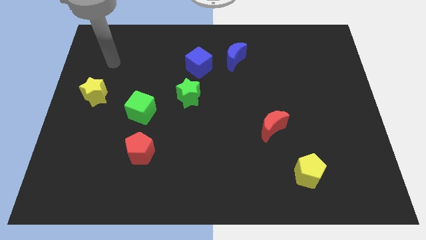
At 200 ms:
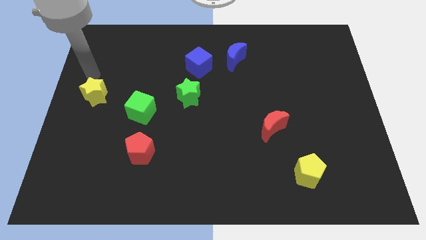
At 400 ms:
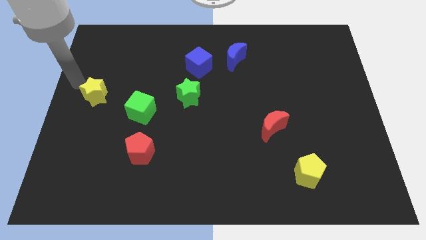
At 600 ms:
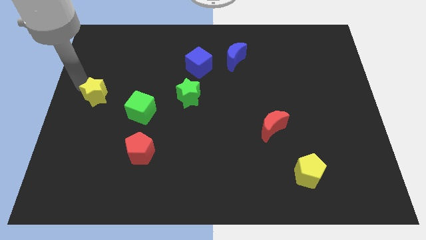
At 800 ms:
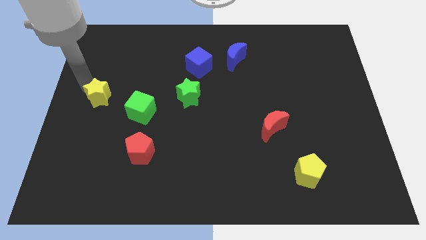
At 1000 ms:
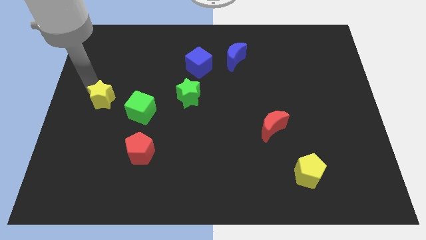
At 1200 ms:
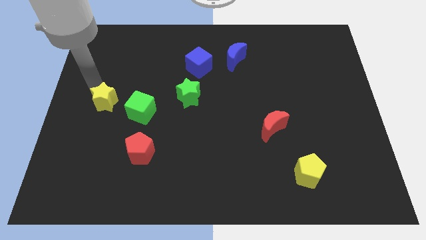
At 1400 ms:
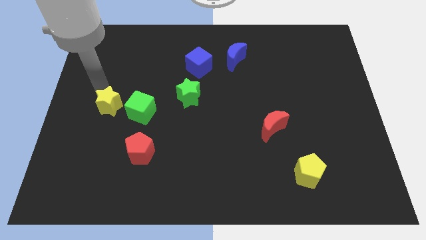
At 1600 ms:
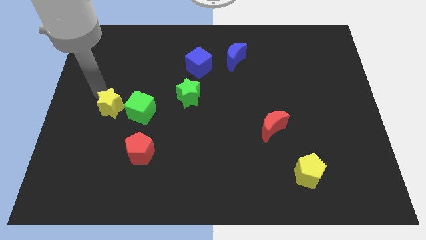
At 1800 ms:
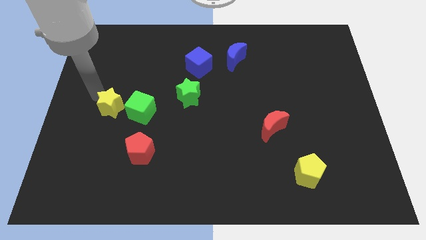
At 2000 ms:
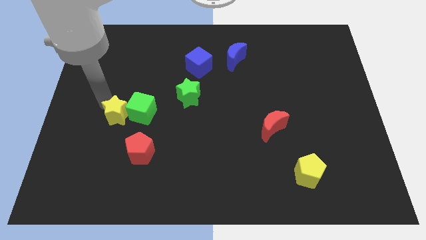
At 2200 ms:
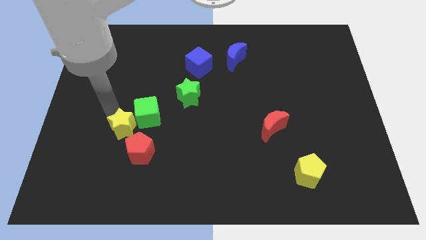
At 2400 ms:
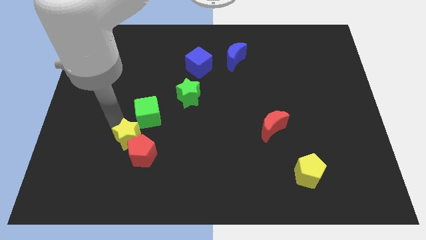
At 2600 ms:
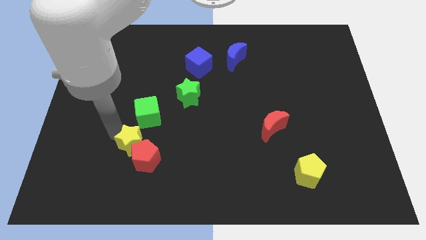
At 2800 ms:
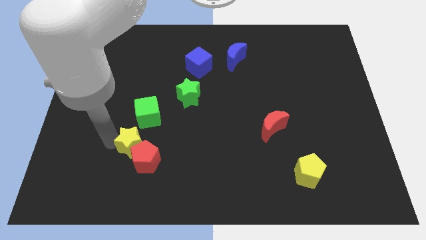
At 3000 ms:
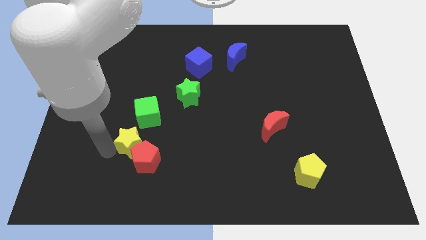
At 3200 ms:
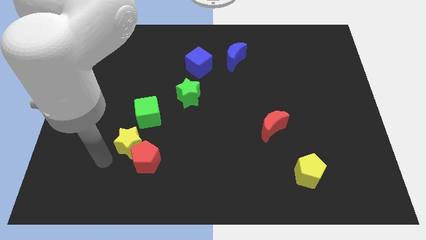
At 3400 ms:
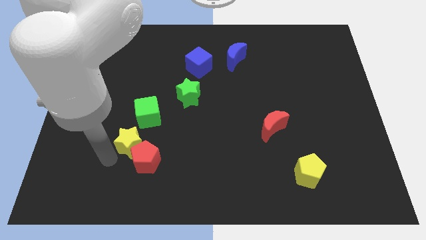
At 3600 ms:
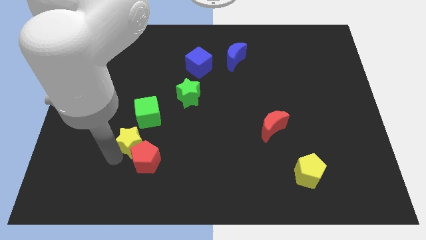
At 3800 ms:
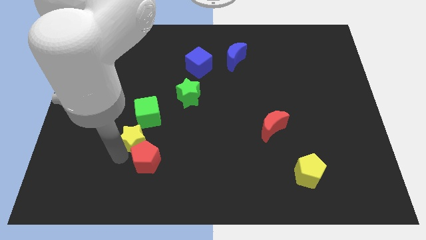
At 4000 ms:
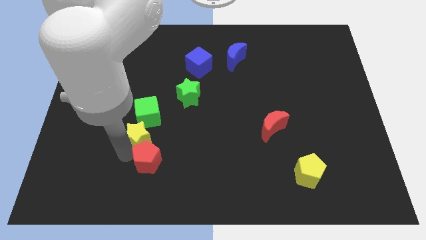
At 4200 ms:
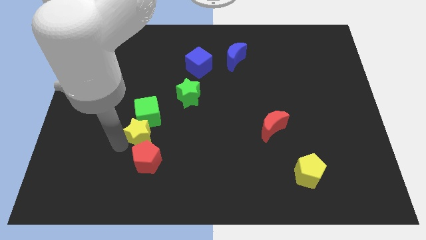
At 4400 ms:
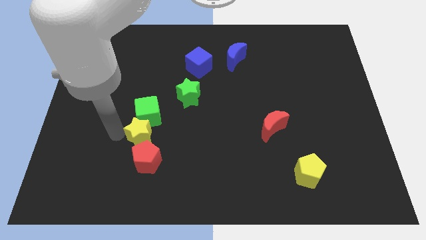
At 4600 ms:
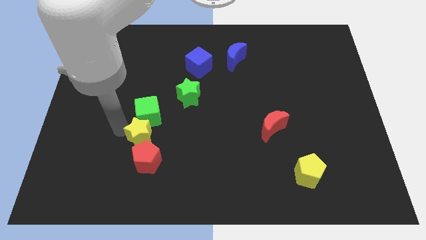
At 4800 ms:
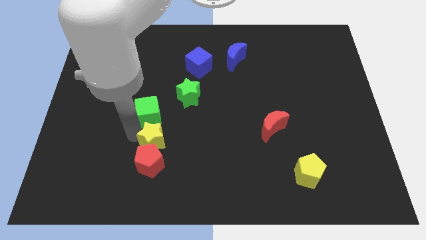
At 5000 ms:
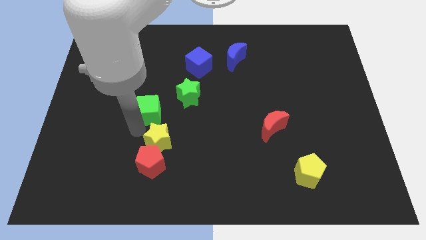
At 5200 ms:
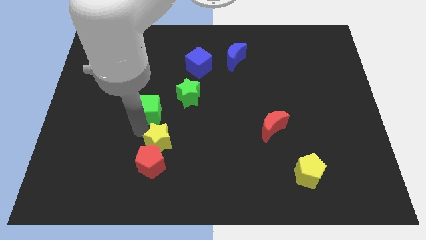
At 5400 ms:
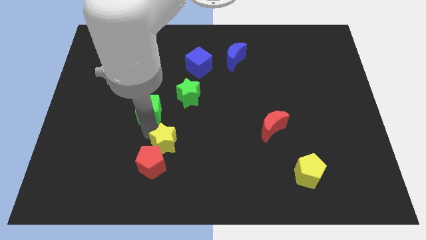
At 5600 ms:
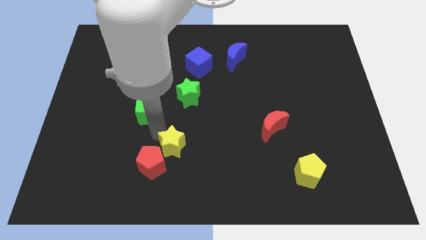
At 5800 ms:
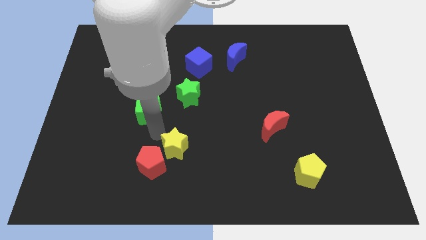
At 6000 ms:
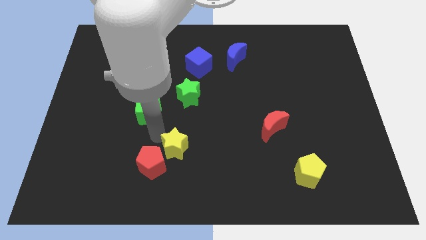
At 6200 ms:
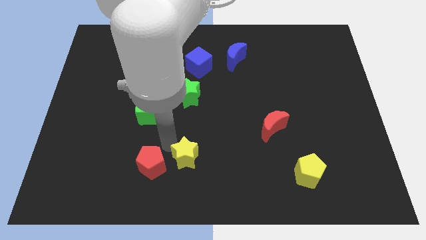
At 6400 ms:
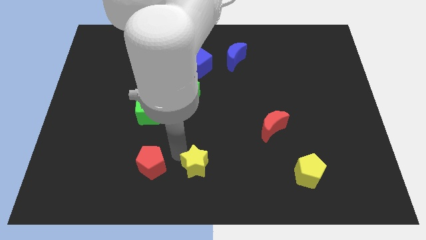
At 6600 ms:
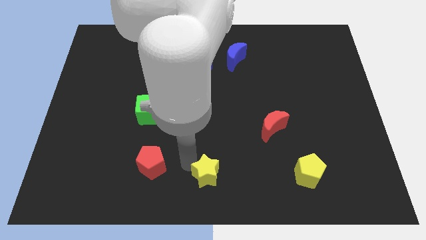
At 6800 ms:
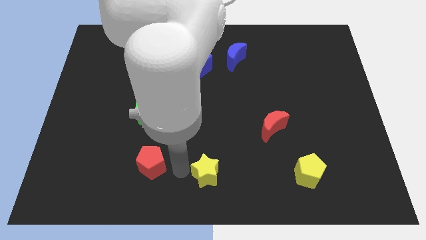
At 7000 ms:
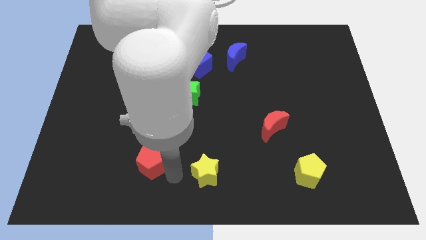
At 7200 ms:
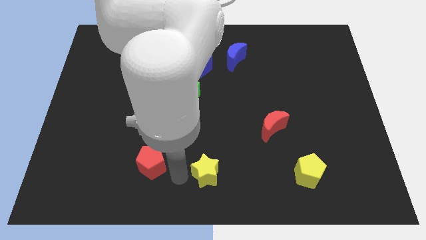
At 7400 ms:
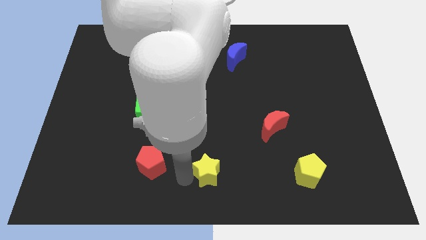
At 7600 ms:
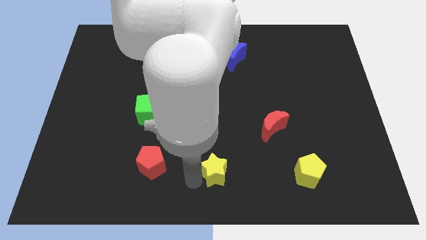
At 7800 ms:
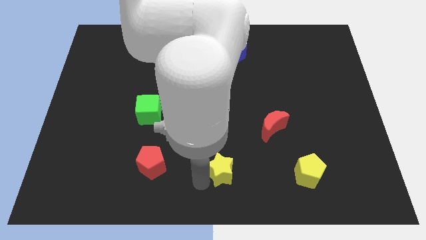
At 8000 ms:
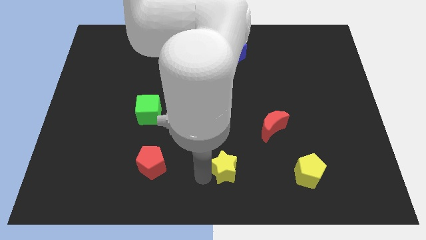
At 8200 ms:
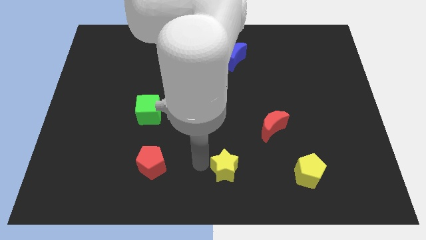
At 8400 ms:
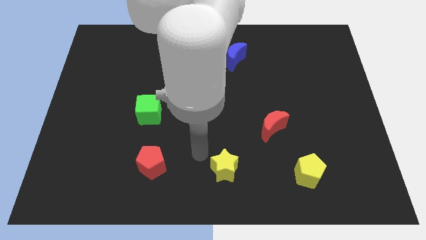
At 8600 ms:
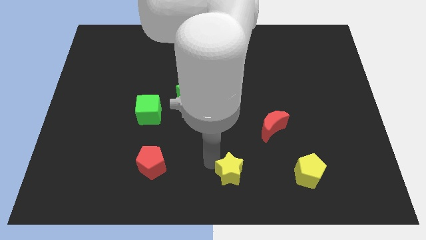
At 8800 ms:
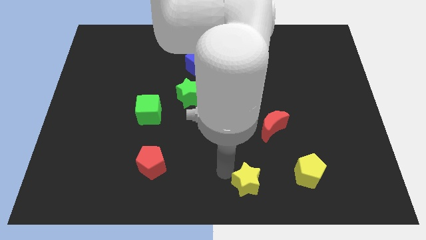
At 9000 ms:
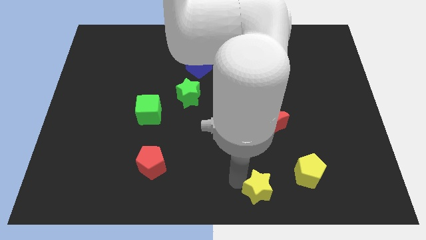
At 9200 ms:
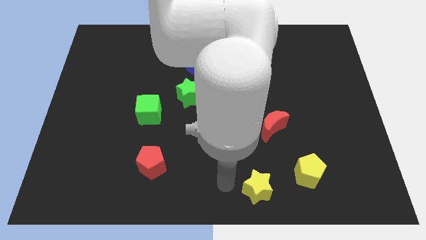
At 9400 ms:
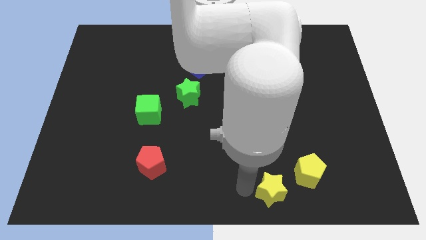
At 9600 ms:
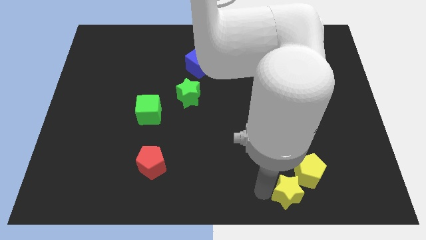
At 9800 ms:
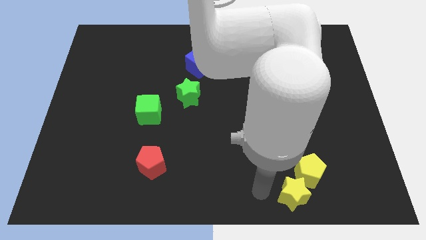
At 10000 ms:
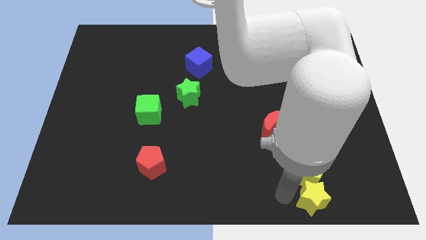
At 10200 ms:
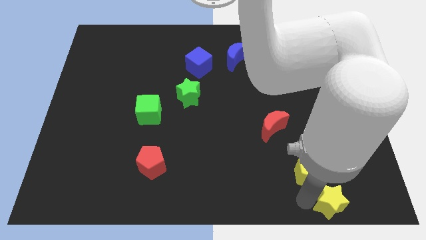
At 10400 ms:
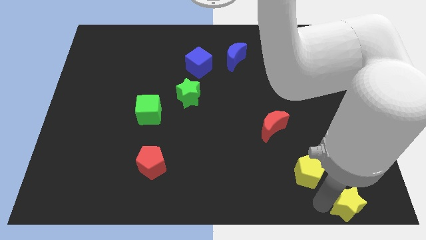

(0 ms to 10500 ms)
move the yellow star to the lower right corner

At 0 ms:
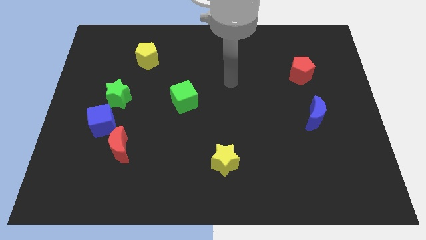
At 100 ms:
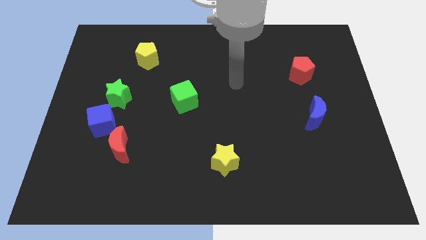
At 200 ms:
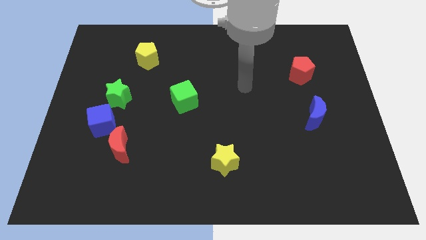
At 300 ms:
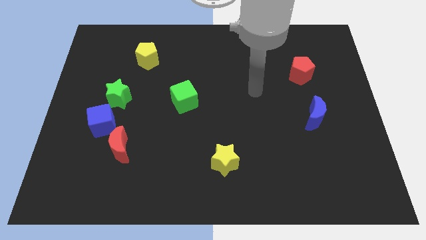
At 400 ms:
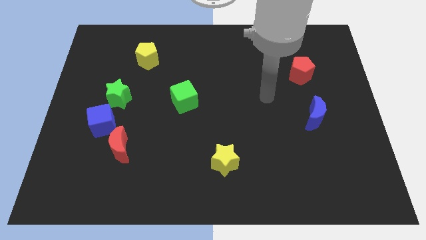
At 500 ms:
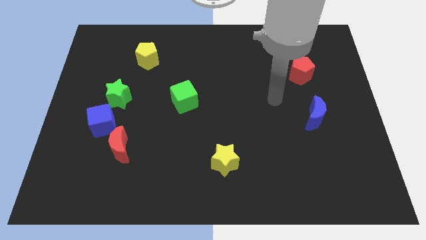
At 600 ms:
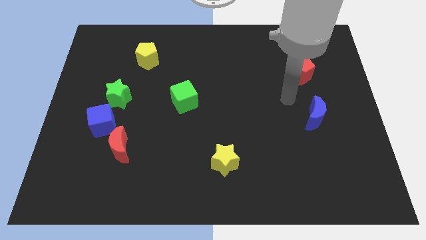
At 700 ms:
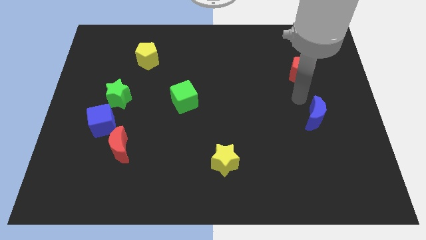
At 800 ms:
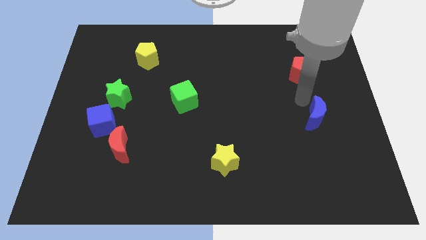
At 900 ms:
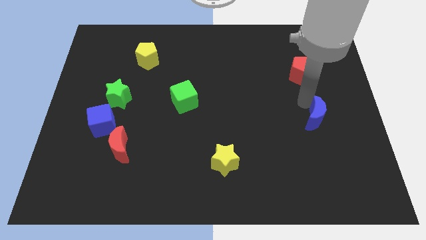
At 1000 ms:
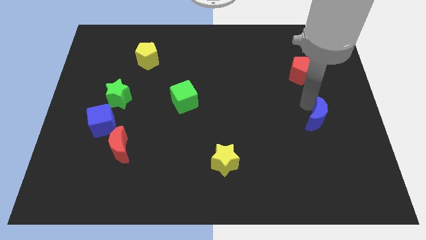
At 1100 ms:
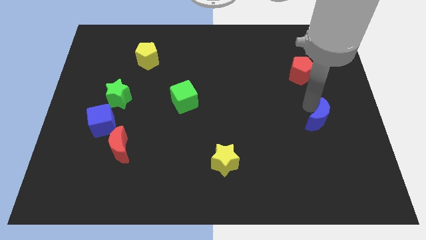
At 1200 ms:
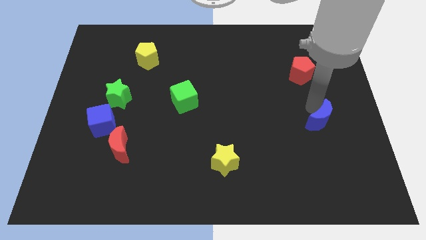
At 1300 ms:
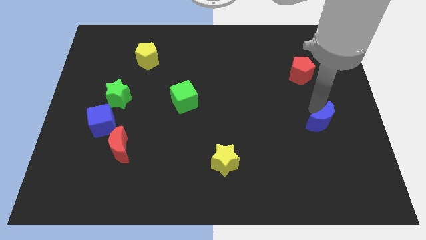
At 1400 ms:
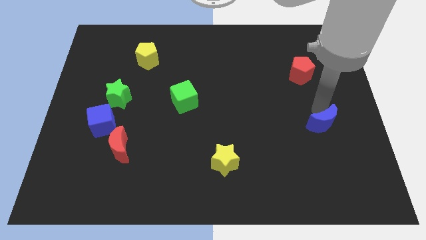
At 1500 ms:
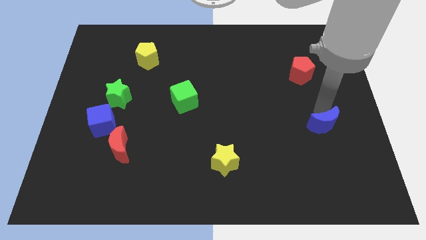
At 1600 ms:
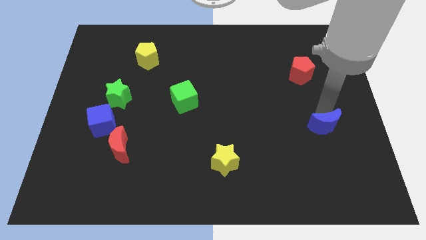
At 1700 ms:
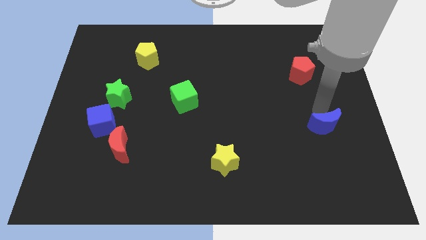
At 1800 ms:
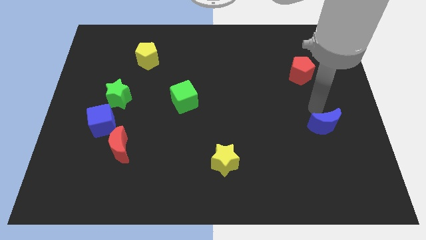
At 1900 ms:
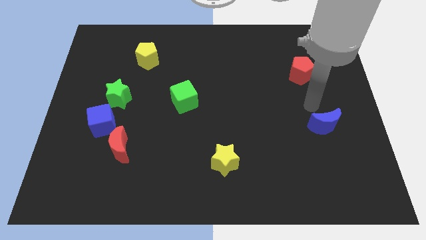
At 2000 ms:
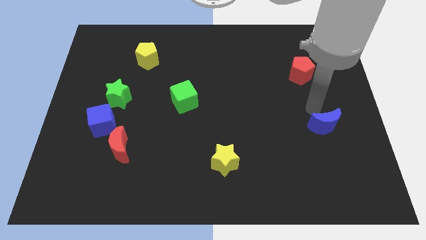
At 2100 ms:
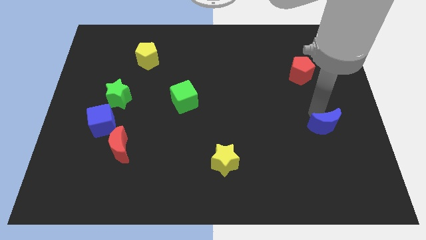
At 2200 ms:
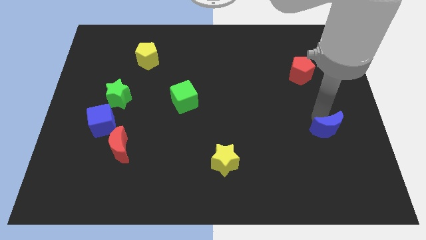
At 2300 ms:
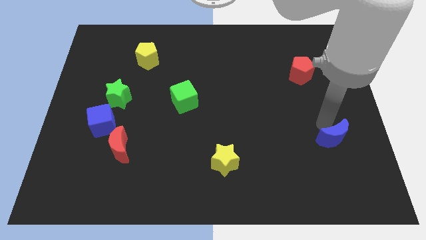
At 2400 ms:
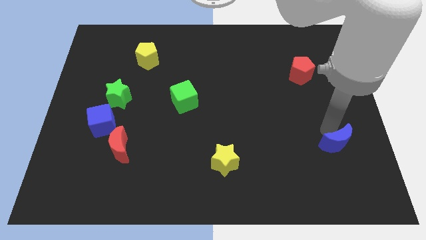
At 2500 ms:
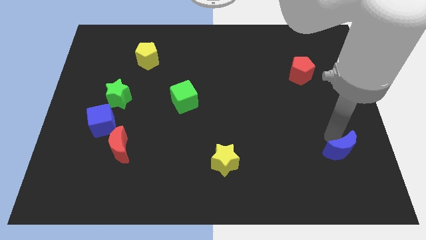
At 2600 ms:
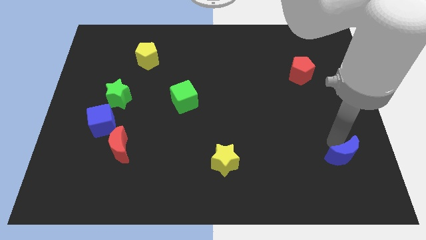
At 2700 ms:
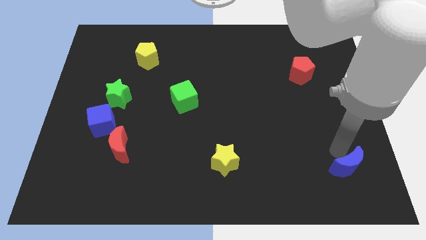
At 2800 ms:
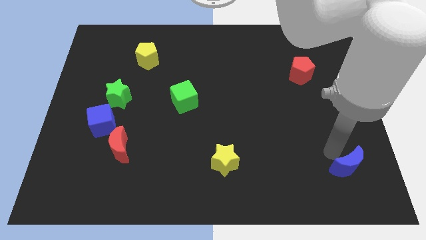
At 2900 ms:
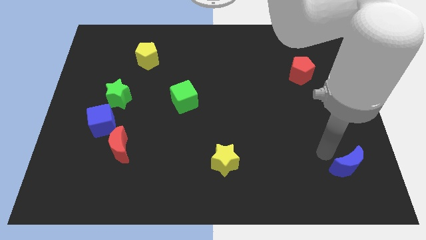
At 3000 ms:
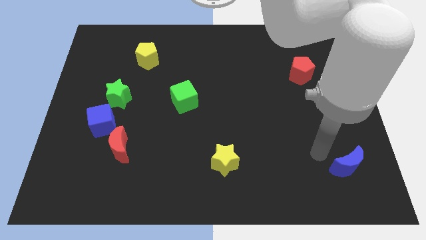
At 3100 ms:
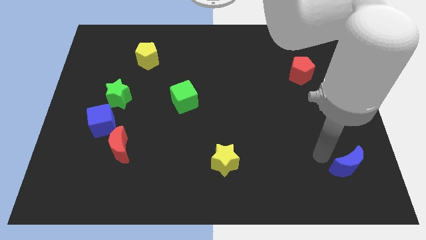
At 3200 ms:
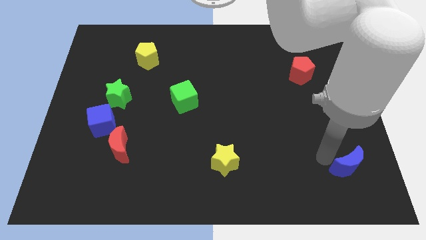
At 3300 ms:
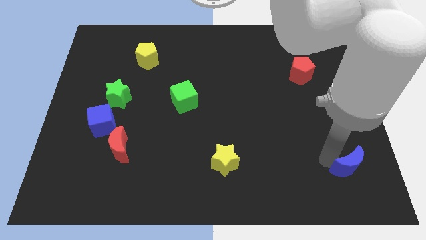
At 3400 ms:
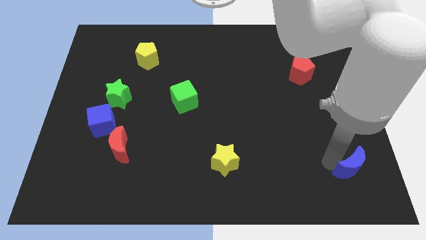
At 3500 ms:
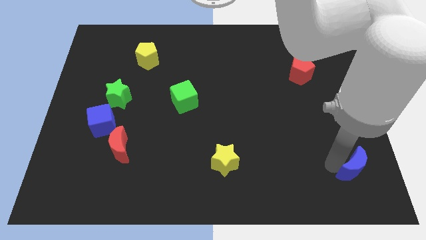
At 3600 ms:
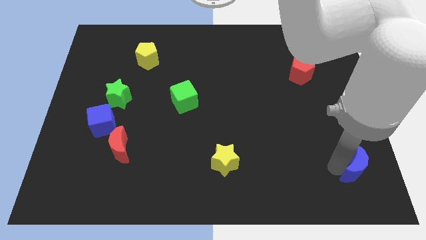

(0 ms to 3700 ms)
put the blue moon to the bottom right of the board
